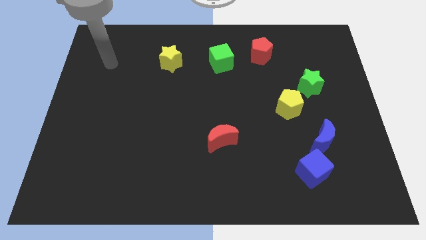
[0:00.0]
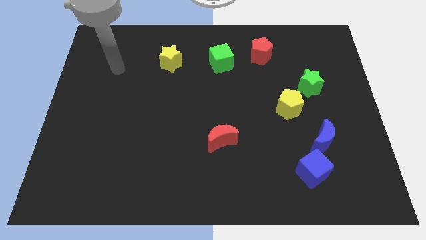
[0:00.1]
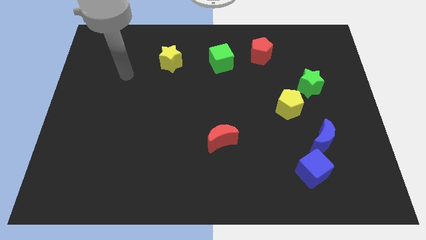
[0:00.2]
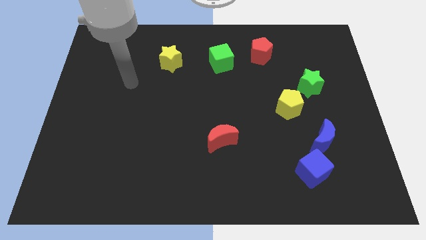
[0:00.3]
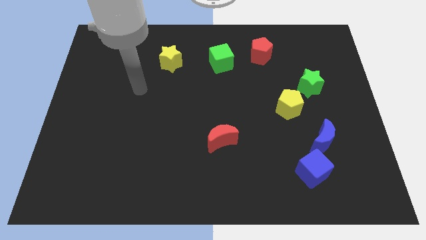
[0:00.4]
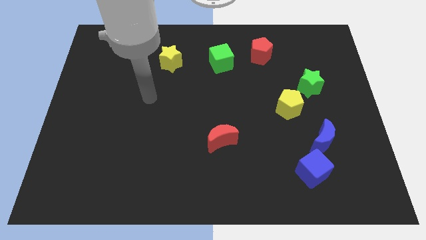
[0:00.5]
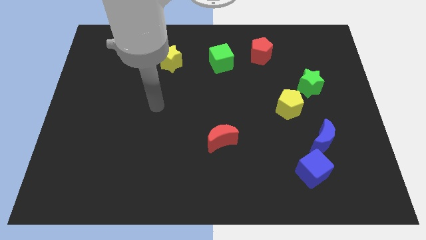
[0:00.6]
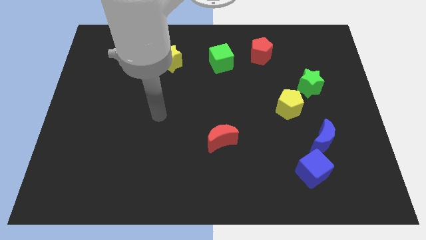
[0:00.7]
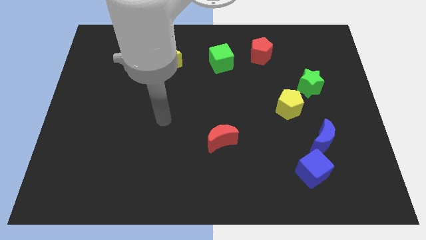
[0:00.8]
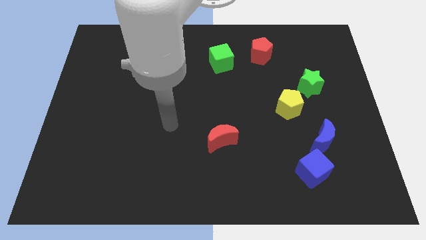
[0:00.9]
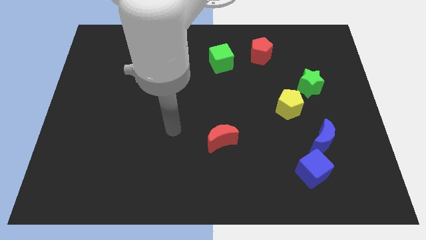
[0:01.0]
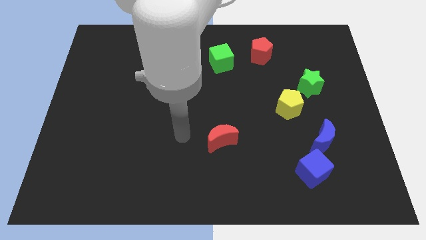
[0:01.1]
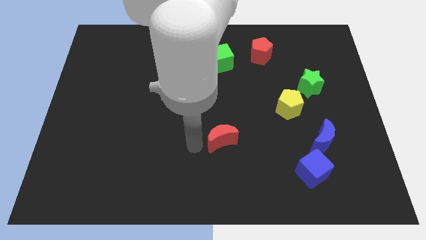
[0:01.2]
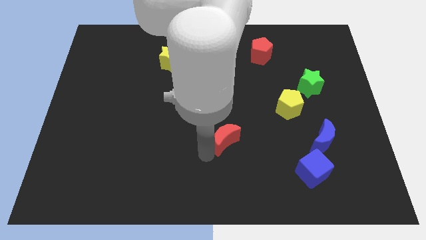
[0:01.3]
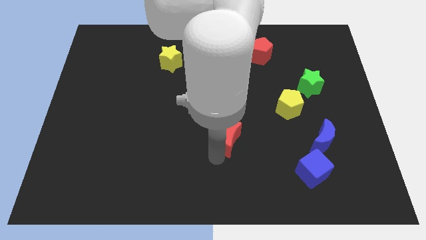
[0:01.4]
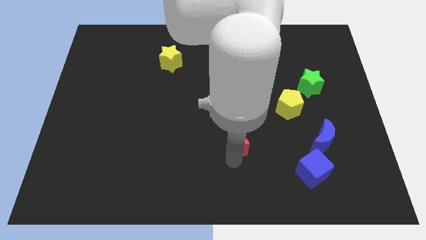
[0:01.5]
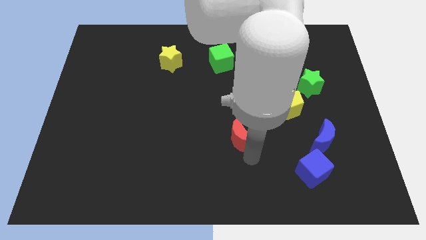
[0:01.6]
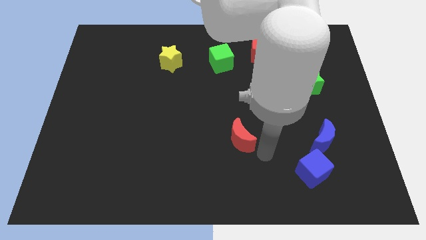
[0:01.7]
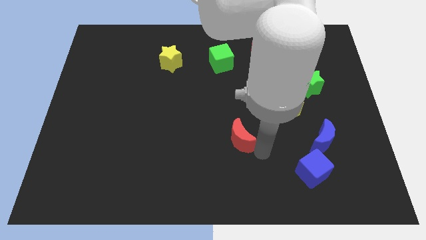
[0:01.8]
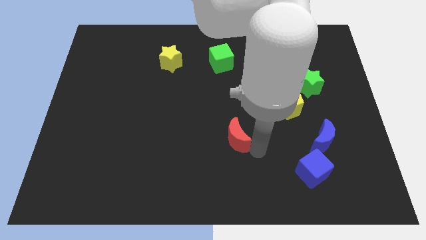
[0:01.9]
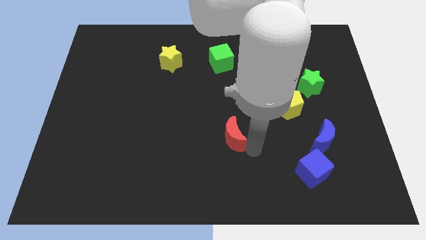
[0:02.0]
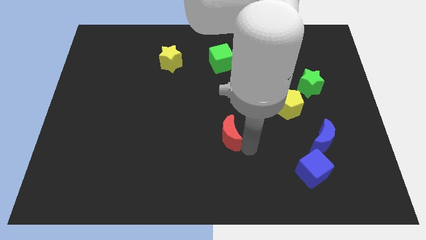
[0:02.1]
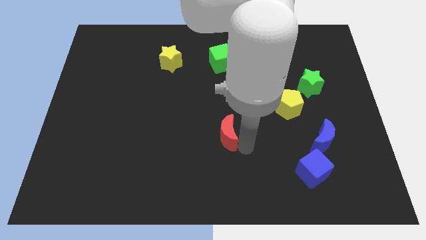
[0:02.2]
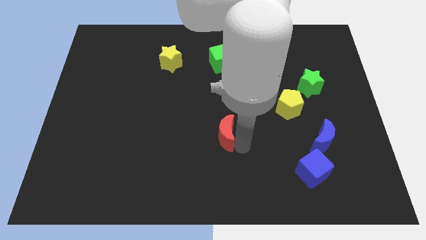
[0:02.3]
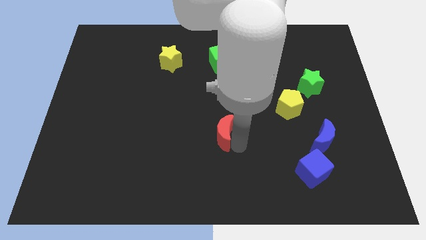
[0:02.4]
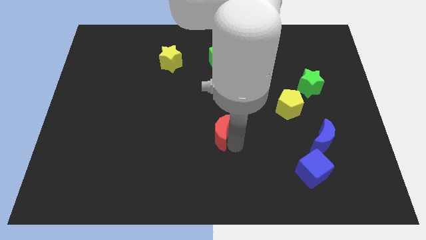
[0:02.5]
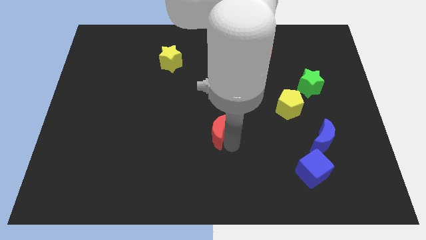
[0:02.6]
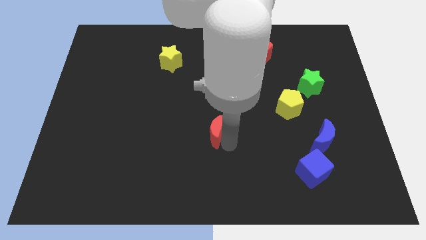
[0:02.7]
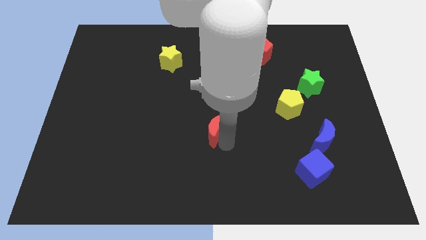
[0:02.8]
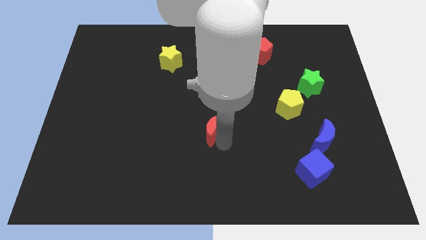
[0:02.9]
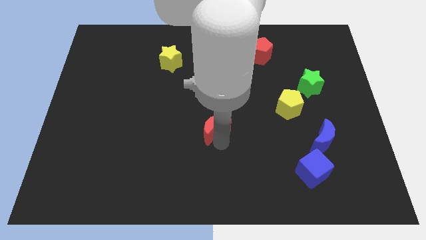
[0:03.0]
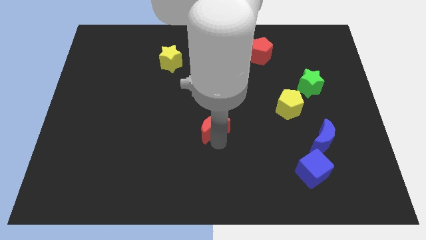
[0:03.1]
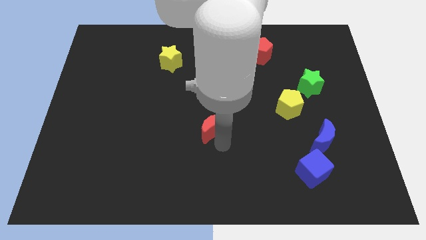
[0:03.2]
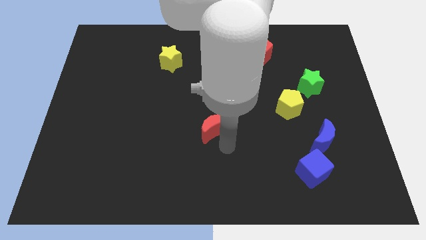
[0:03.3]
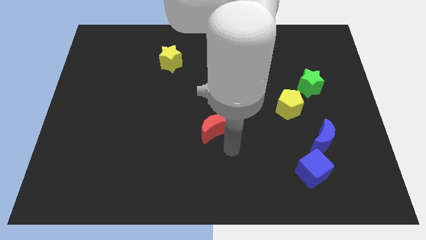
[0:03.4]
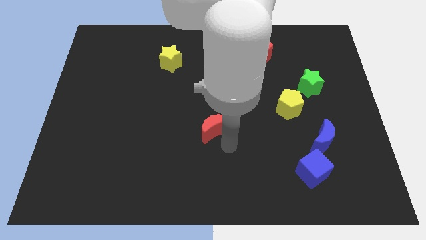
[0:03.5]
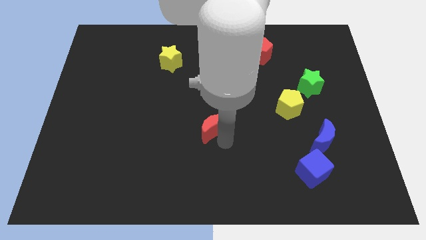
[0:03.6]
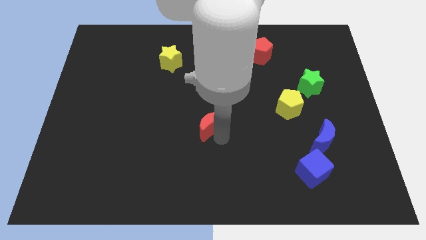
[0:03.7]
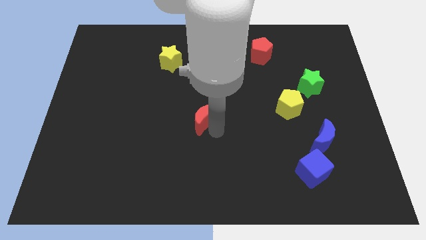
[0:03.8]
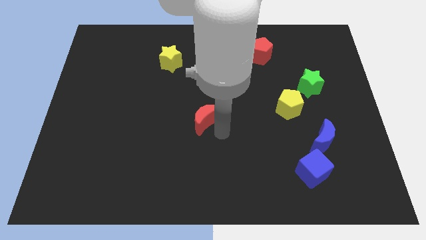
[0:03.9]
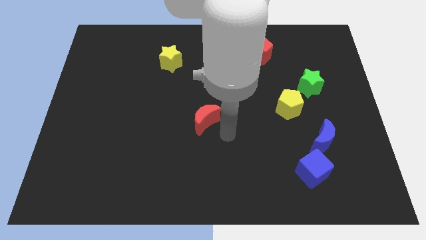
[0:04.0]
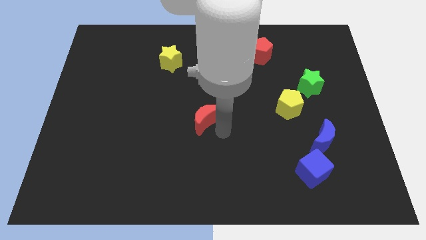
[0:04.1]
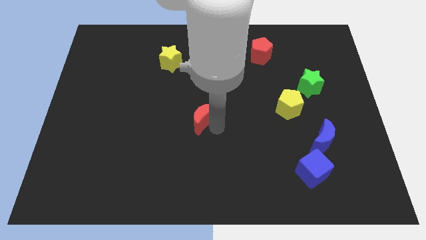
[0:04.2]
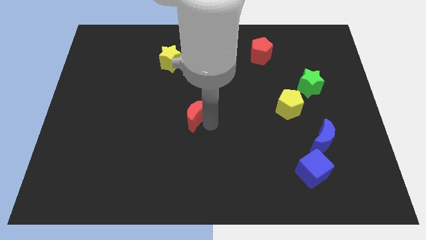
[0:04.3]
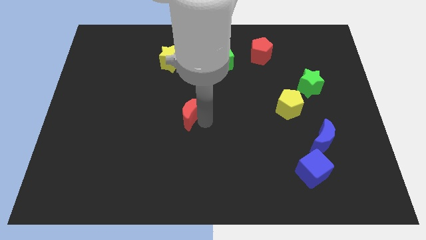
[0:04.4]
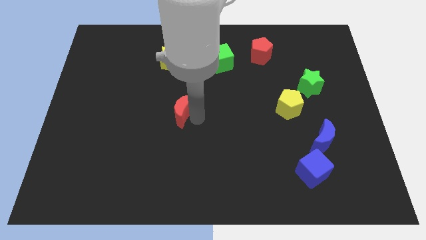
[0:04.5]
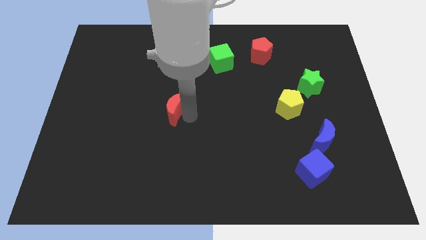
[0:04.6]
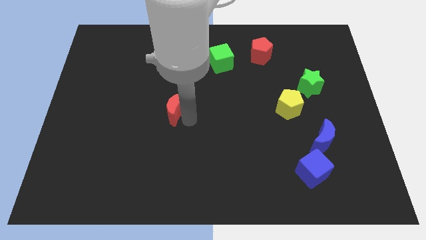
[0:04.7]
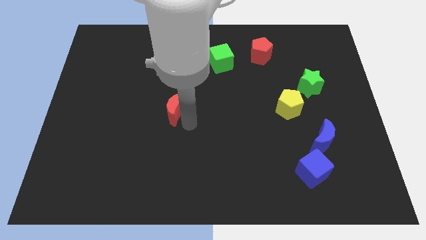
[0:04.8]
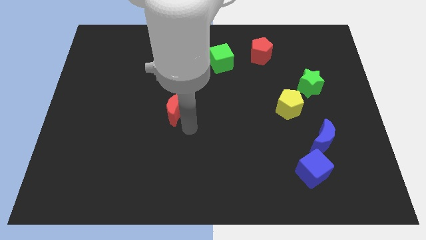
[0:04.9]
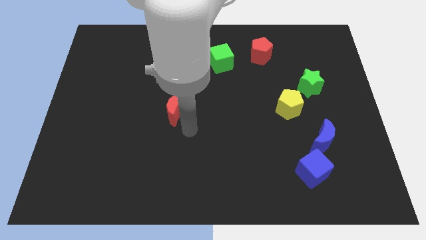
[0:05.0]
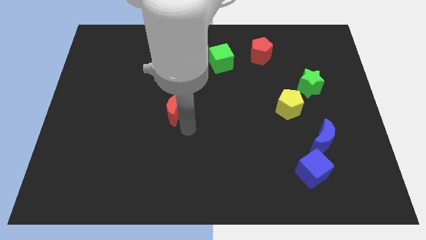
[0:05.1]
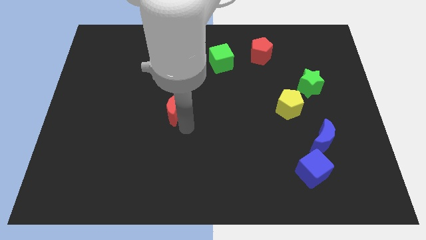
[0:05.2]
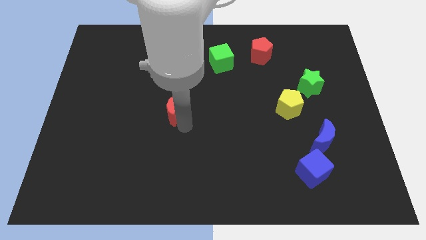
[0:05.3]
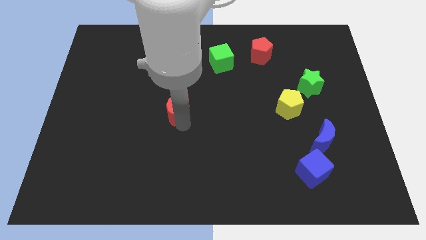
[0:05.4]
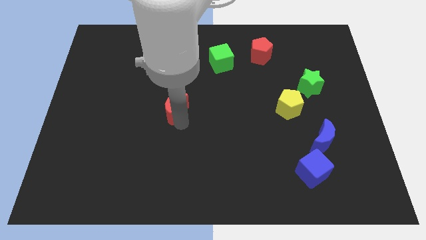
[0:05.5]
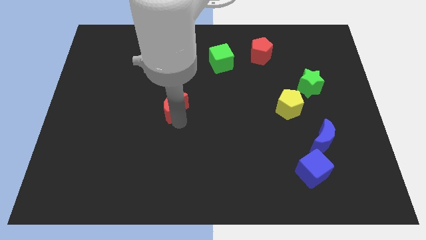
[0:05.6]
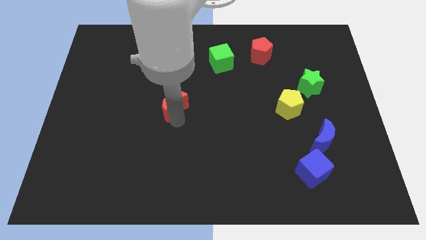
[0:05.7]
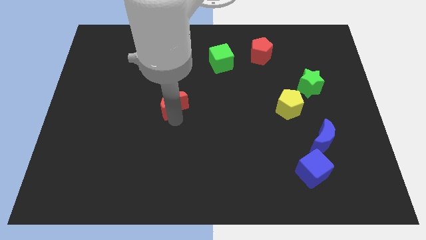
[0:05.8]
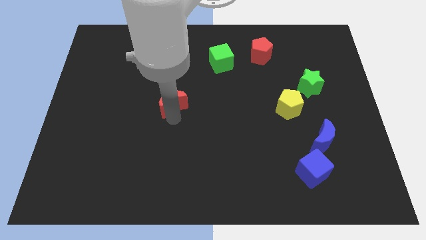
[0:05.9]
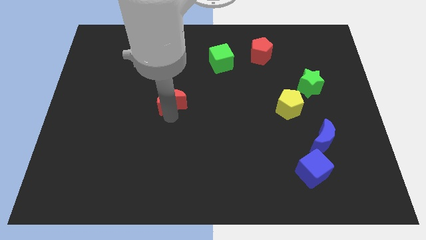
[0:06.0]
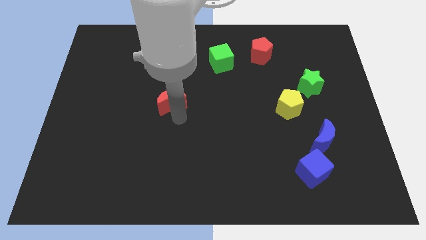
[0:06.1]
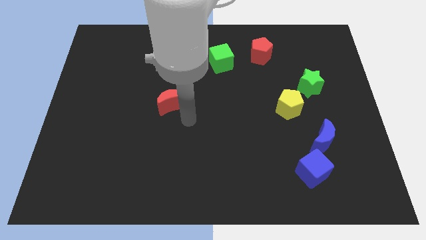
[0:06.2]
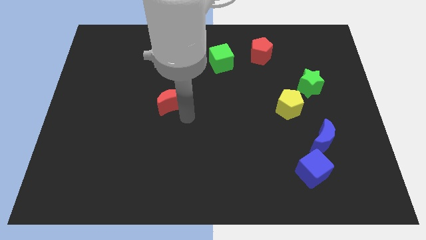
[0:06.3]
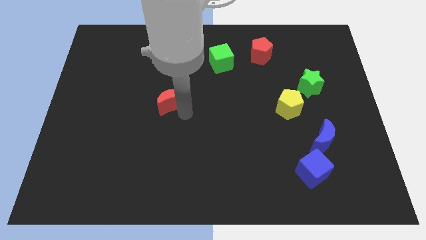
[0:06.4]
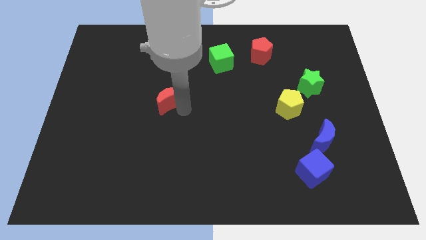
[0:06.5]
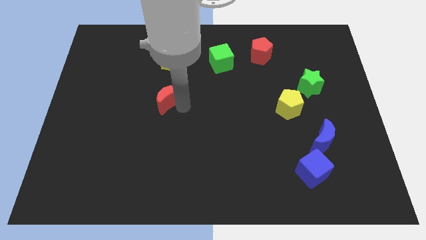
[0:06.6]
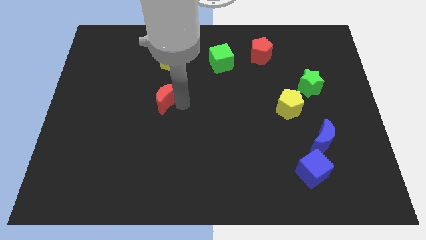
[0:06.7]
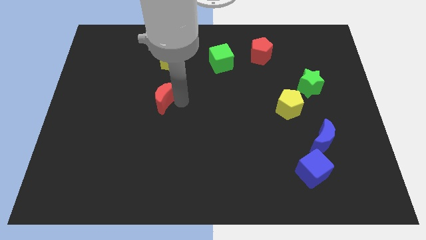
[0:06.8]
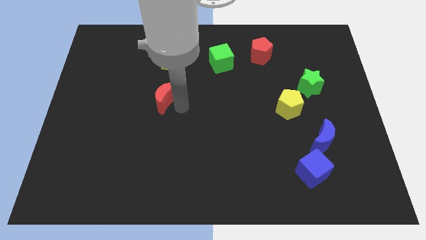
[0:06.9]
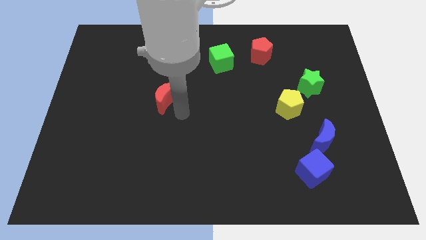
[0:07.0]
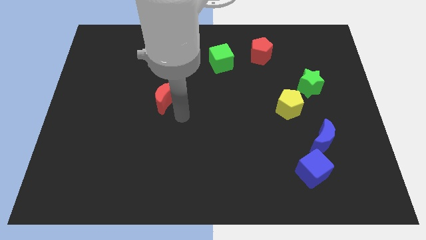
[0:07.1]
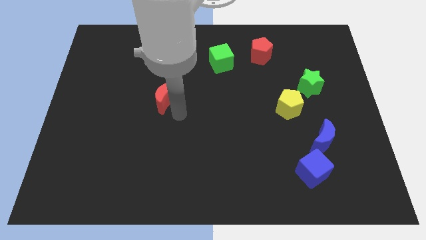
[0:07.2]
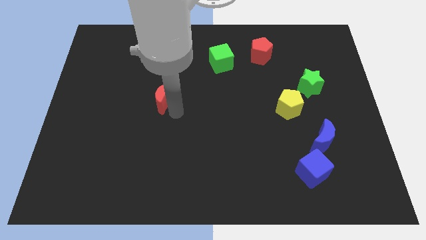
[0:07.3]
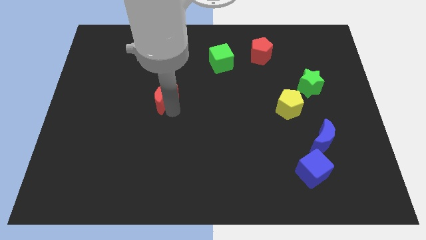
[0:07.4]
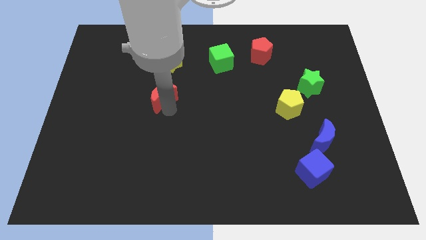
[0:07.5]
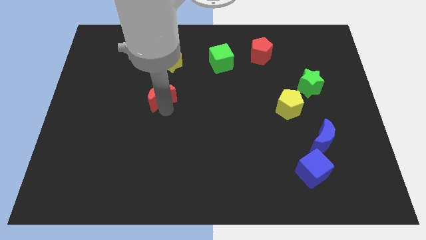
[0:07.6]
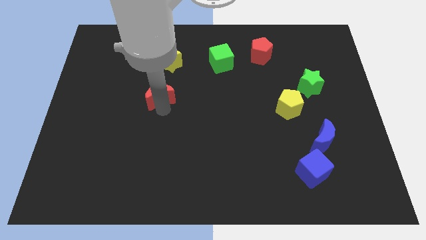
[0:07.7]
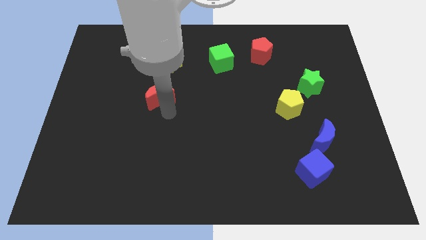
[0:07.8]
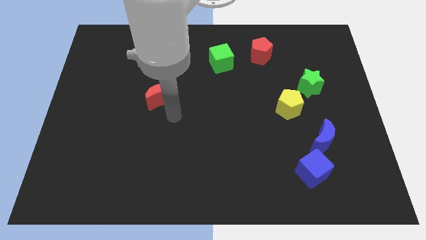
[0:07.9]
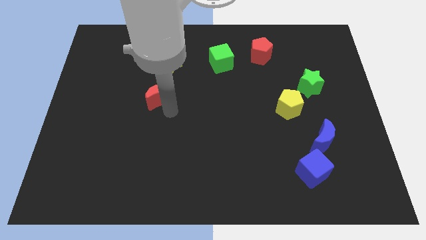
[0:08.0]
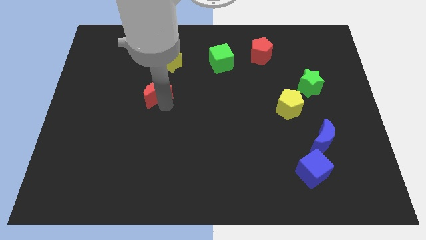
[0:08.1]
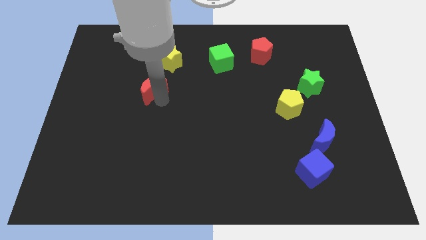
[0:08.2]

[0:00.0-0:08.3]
move the red moon diagonally up and left
